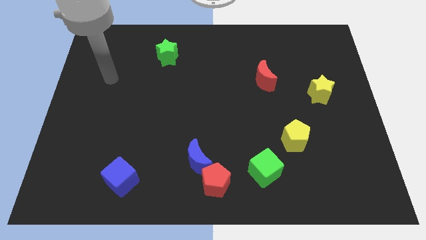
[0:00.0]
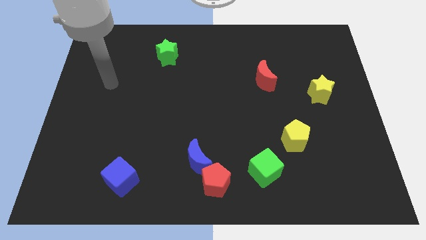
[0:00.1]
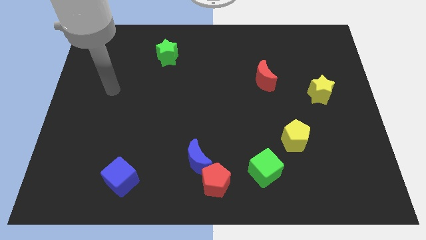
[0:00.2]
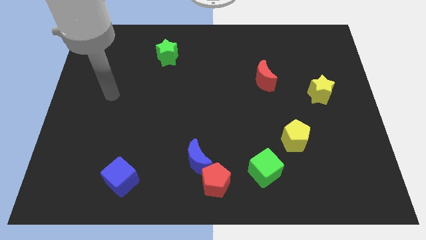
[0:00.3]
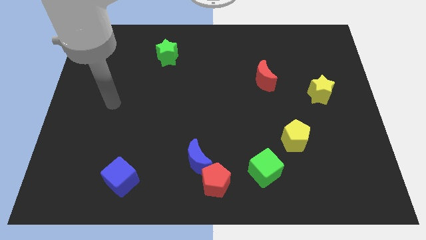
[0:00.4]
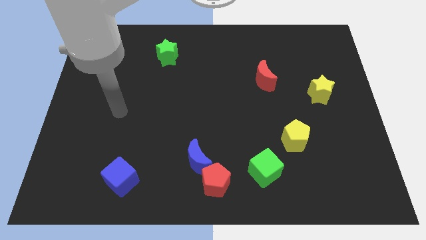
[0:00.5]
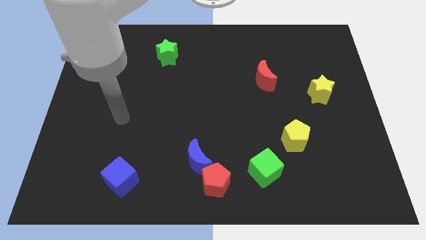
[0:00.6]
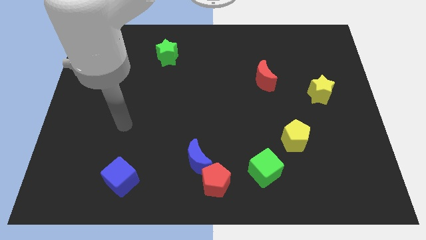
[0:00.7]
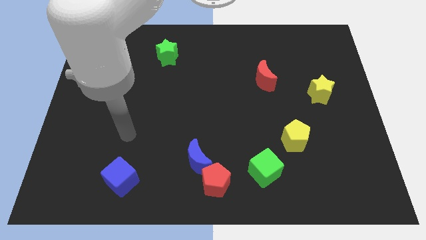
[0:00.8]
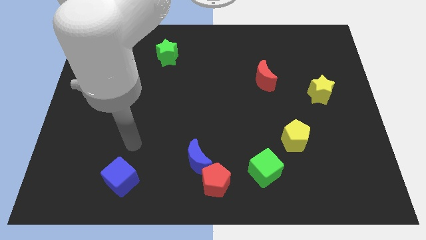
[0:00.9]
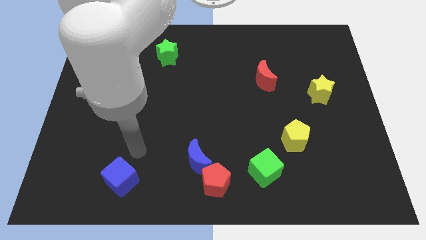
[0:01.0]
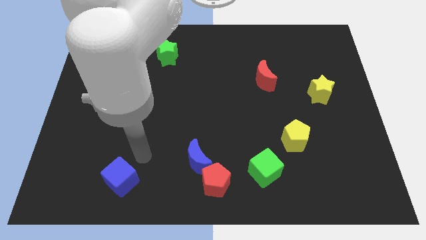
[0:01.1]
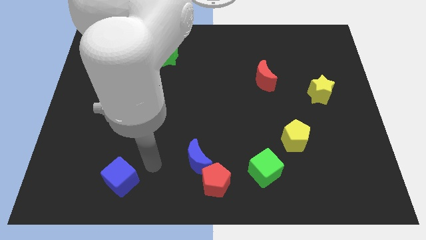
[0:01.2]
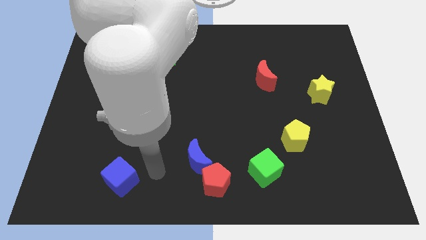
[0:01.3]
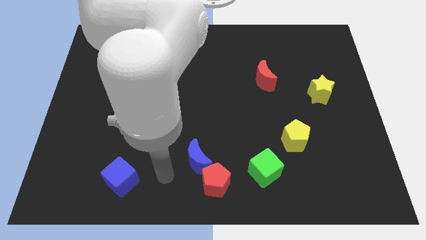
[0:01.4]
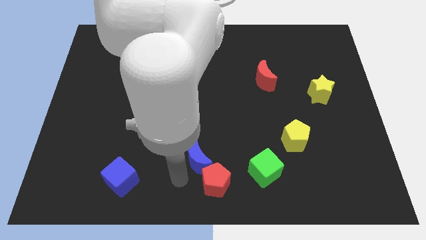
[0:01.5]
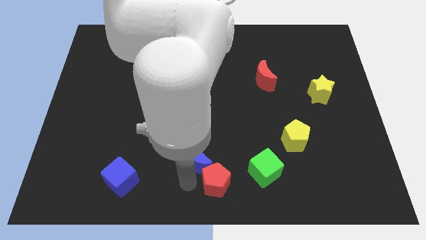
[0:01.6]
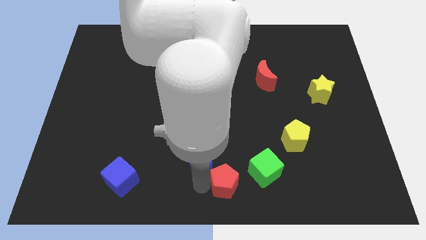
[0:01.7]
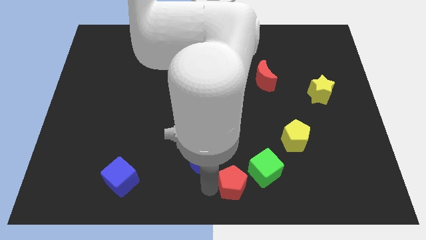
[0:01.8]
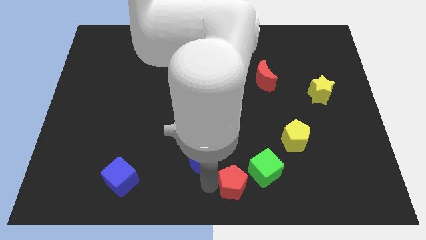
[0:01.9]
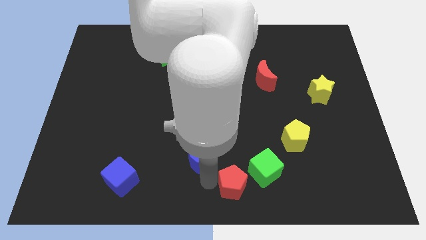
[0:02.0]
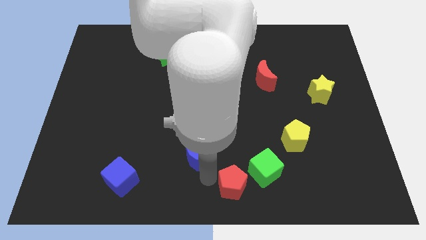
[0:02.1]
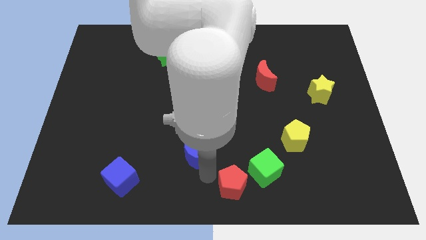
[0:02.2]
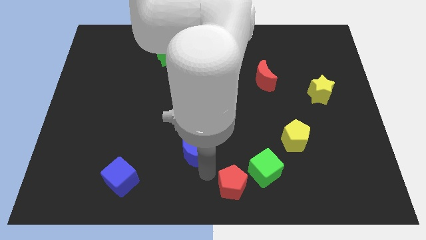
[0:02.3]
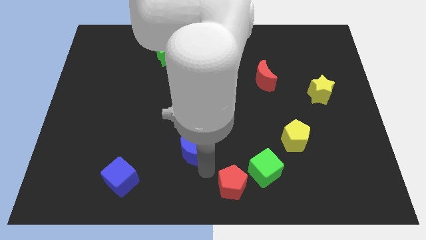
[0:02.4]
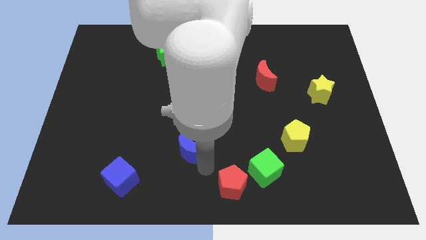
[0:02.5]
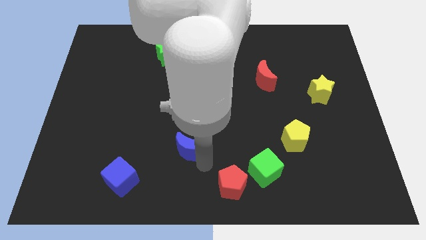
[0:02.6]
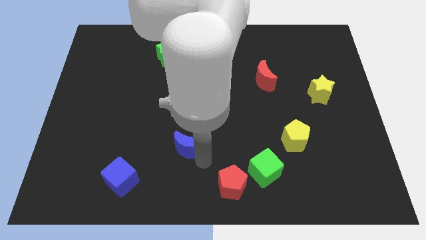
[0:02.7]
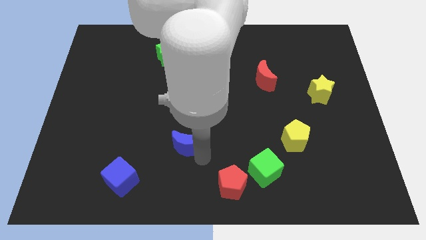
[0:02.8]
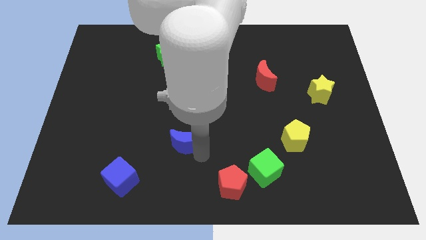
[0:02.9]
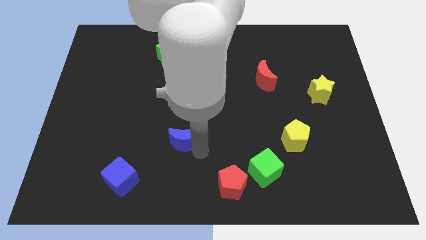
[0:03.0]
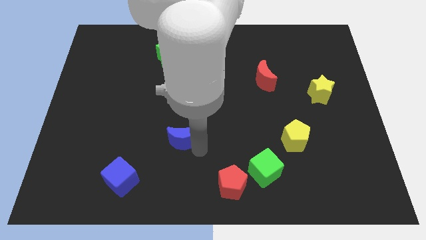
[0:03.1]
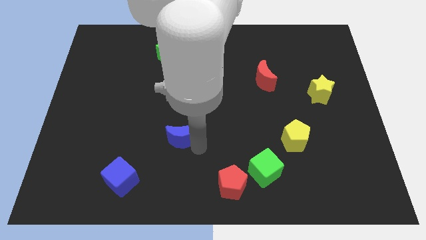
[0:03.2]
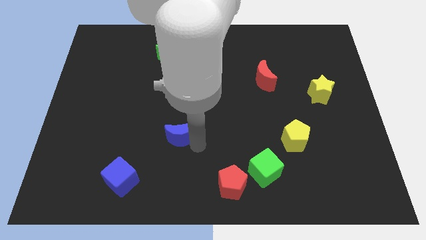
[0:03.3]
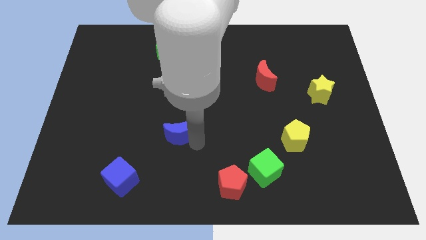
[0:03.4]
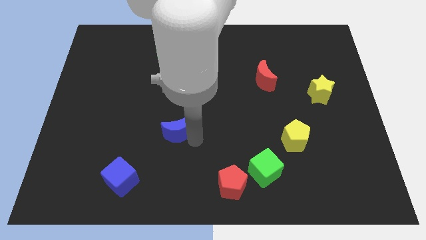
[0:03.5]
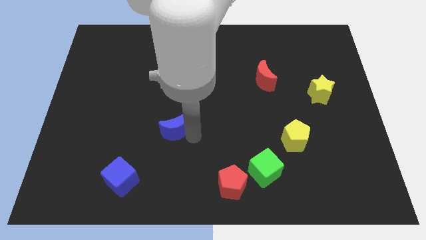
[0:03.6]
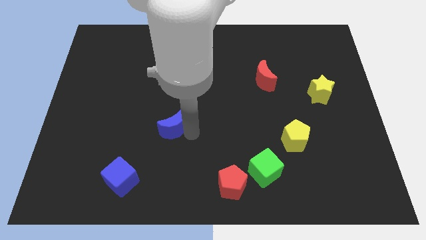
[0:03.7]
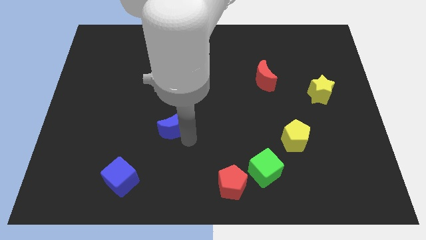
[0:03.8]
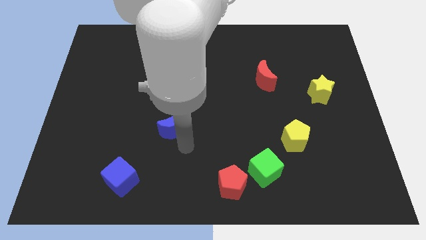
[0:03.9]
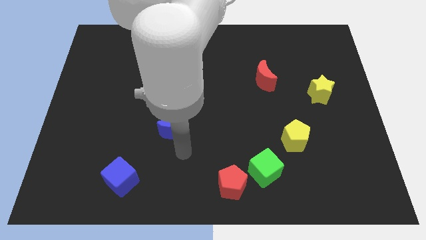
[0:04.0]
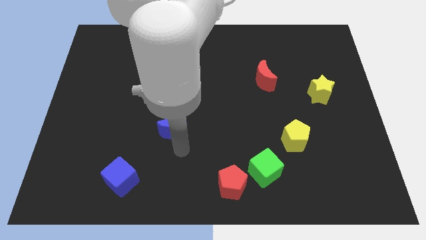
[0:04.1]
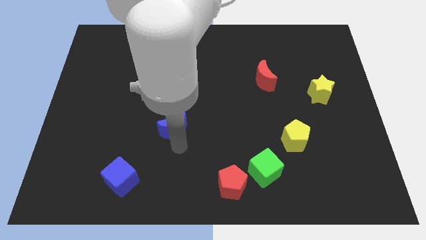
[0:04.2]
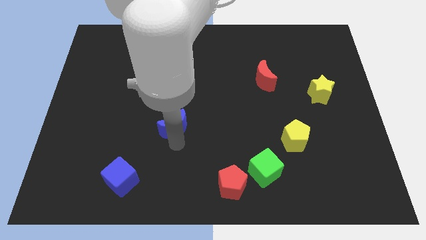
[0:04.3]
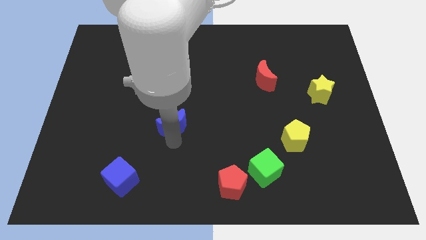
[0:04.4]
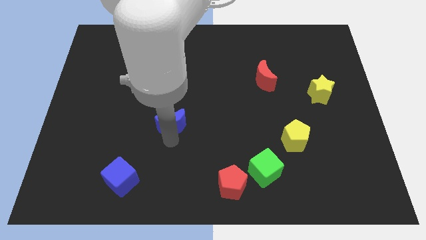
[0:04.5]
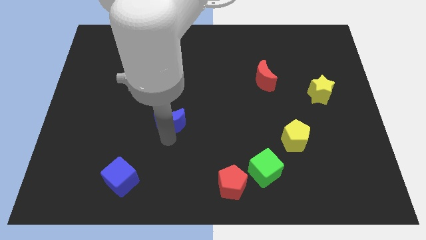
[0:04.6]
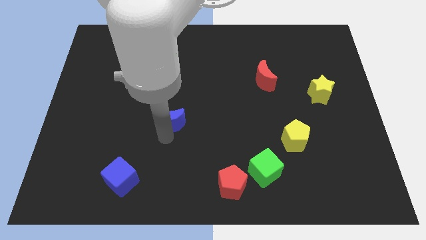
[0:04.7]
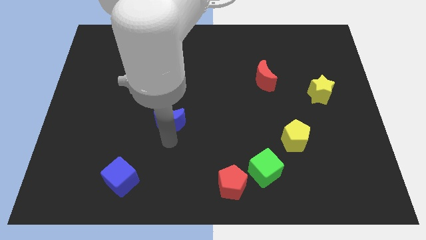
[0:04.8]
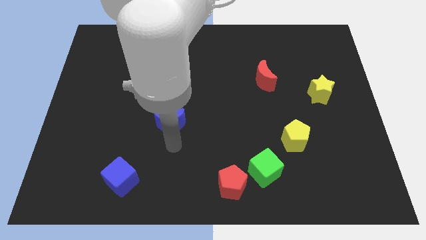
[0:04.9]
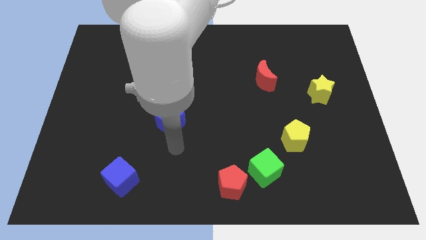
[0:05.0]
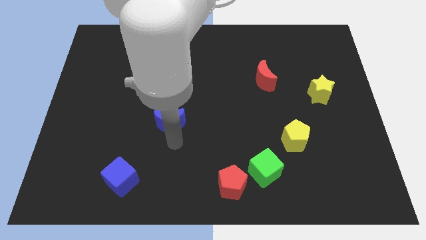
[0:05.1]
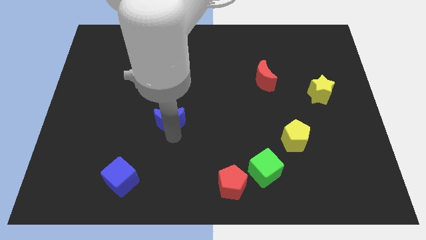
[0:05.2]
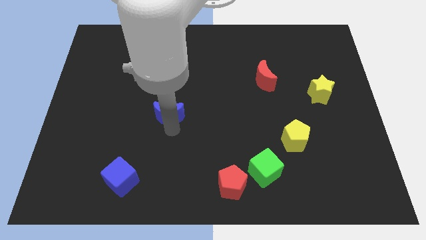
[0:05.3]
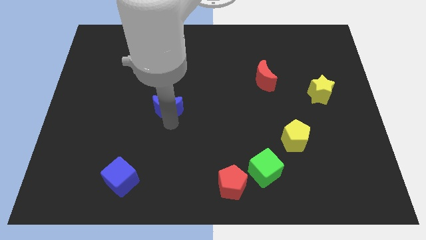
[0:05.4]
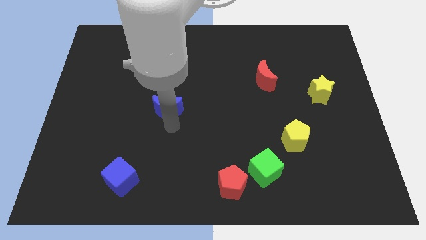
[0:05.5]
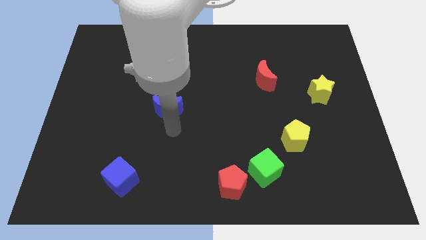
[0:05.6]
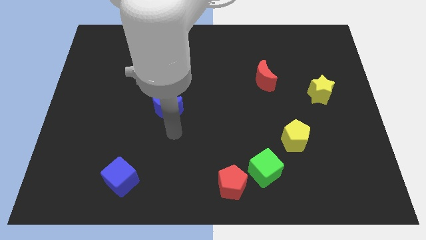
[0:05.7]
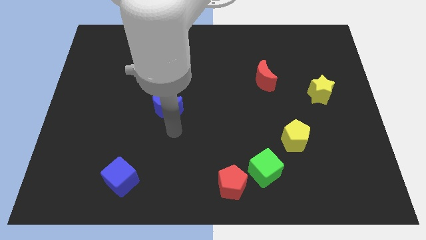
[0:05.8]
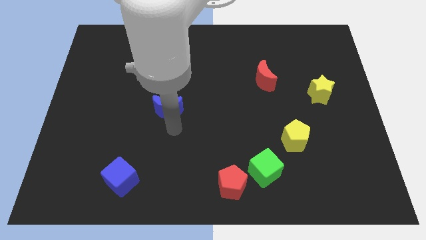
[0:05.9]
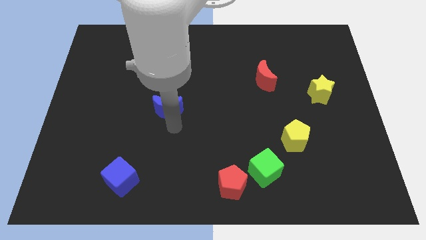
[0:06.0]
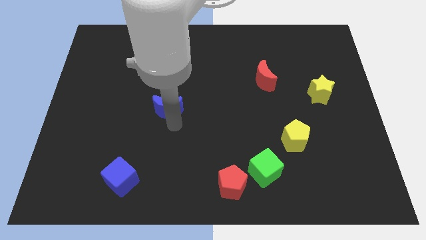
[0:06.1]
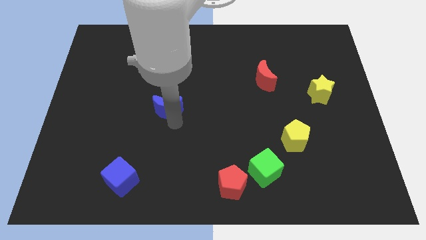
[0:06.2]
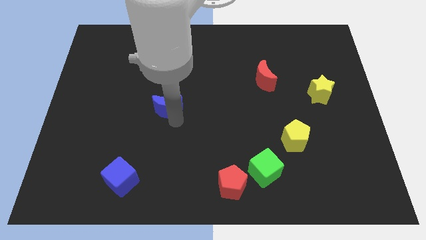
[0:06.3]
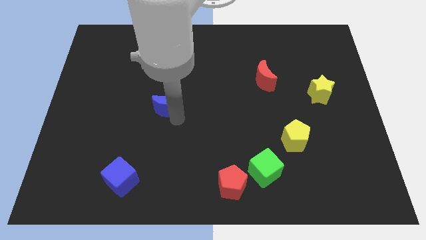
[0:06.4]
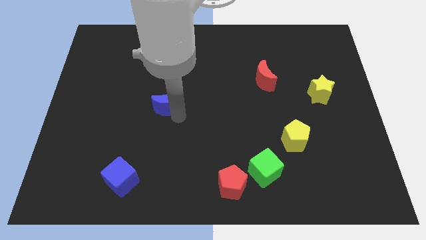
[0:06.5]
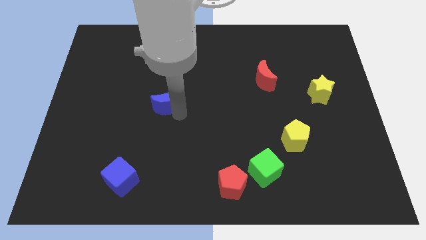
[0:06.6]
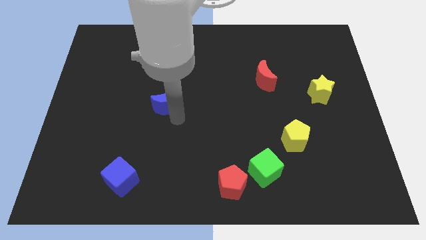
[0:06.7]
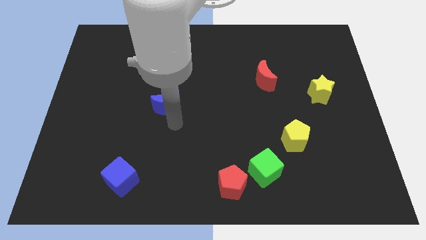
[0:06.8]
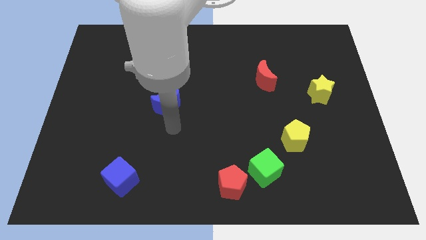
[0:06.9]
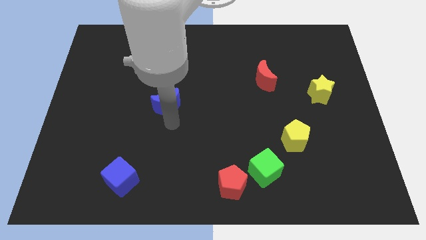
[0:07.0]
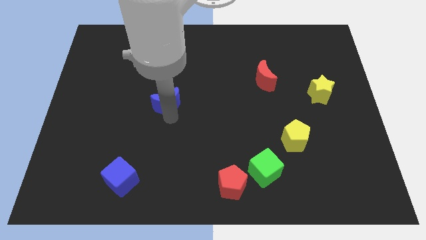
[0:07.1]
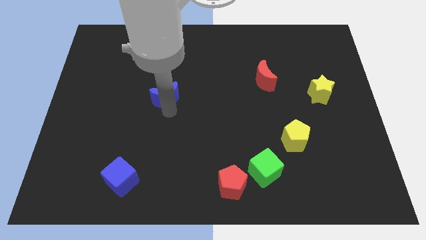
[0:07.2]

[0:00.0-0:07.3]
move the blue moon below the green star
